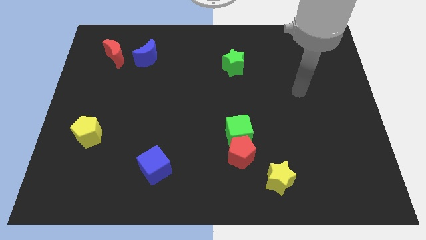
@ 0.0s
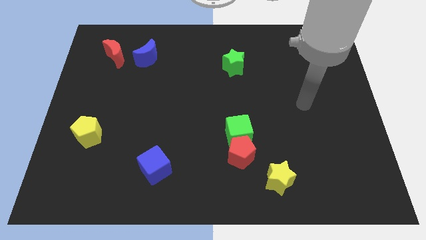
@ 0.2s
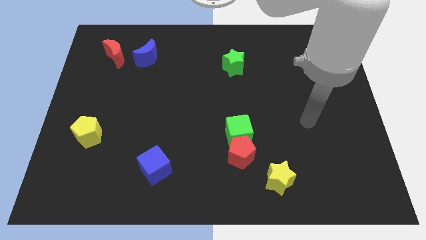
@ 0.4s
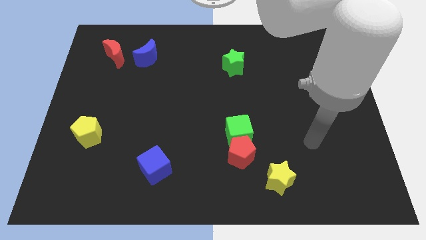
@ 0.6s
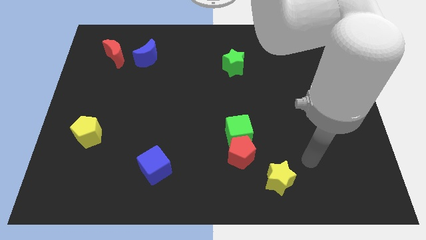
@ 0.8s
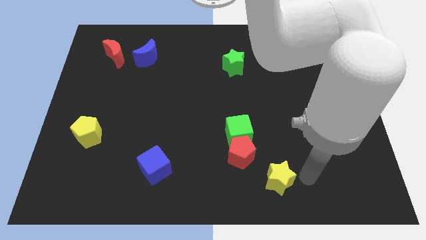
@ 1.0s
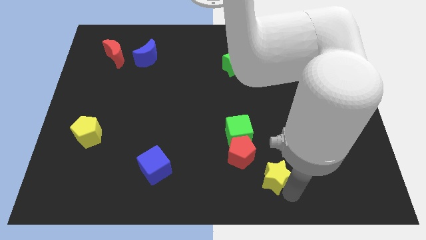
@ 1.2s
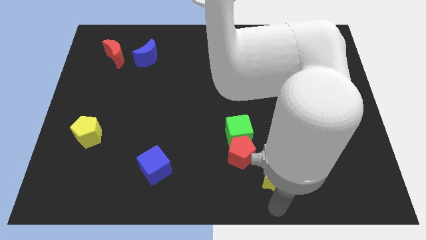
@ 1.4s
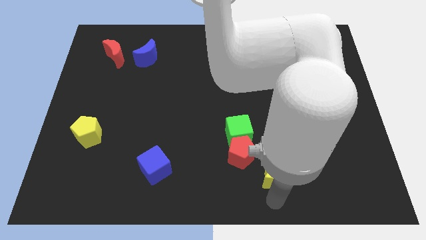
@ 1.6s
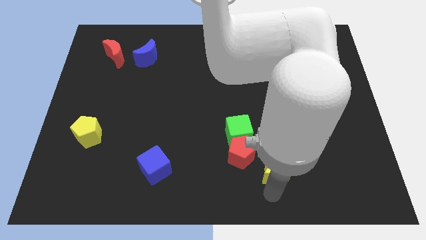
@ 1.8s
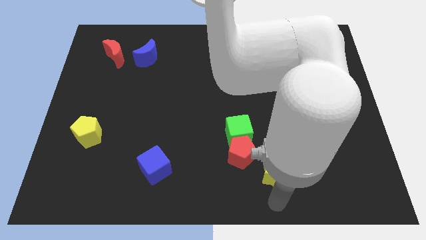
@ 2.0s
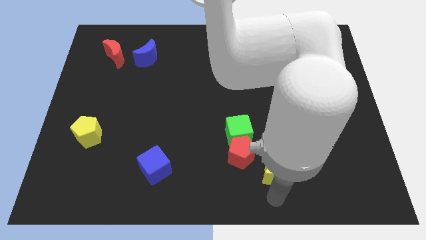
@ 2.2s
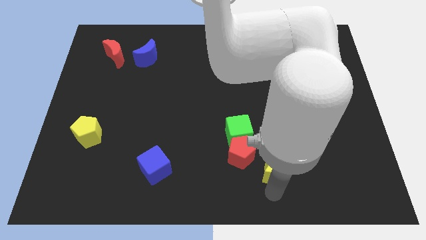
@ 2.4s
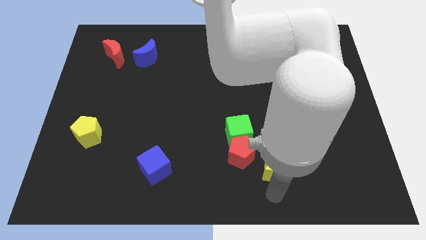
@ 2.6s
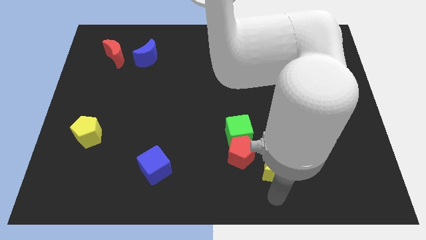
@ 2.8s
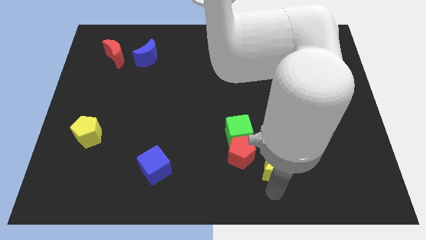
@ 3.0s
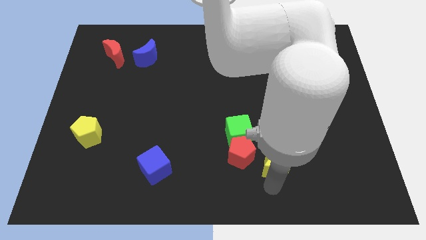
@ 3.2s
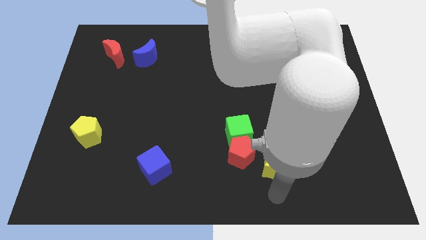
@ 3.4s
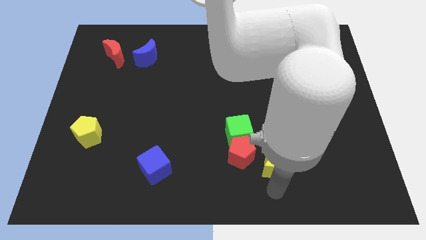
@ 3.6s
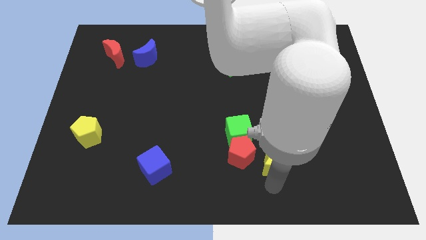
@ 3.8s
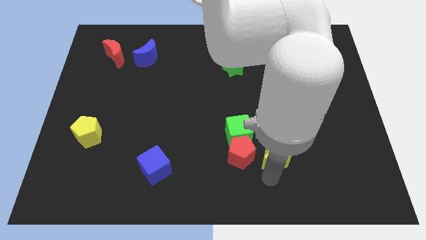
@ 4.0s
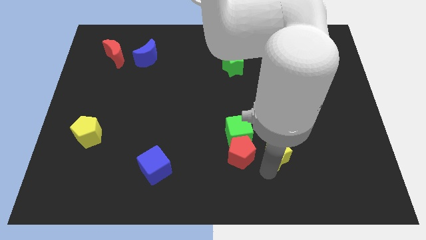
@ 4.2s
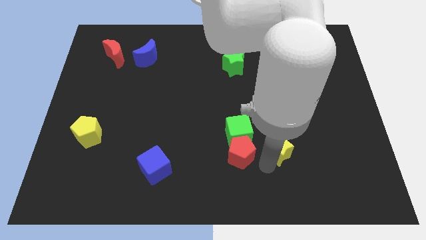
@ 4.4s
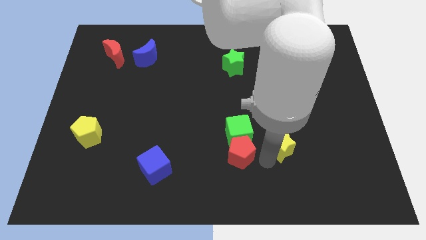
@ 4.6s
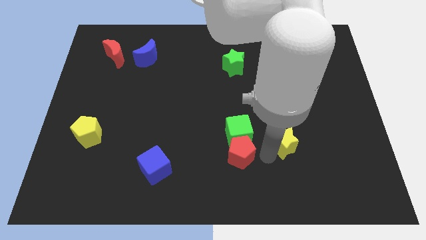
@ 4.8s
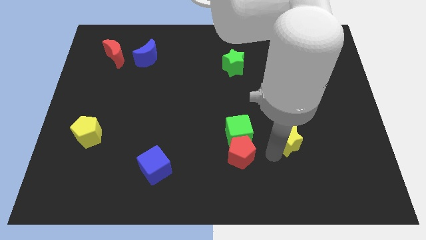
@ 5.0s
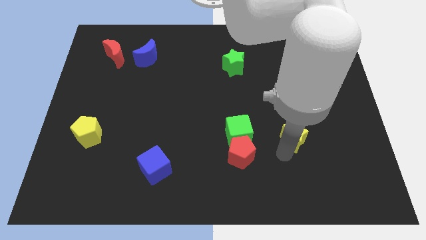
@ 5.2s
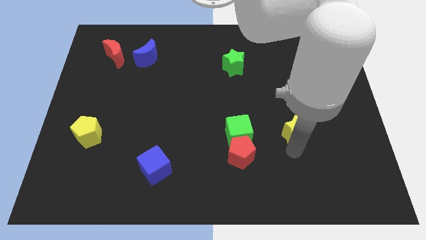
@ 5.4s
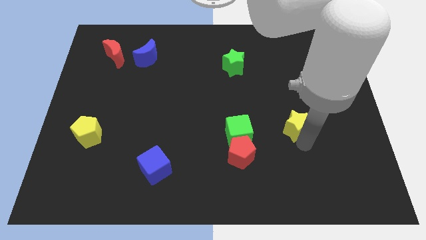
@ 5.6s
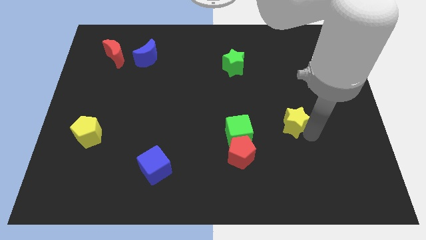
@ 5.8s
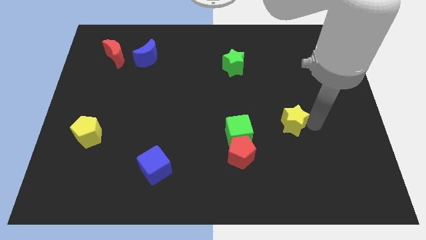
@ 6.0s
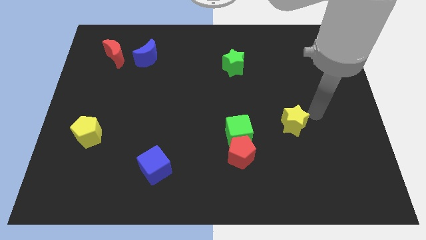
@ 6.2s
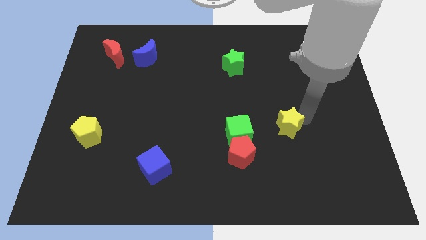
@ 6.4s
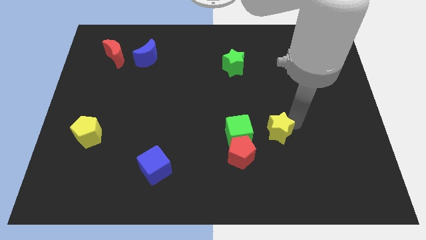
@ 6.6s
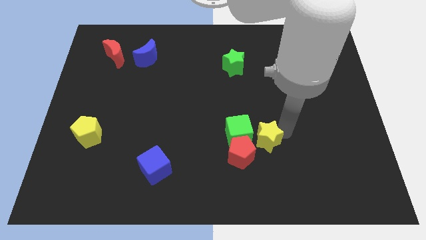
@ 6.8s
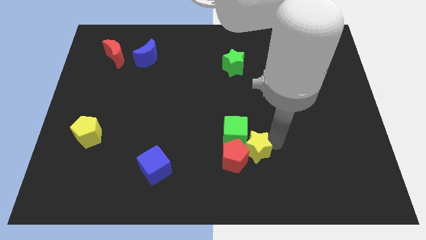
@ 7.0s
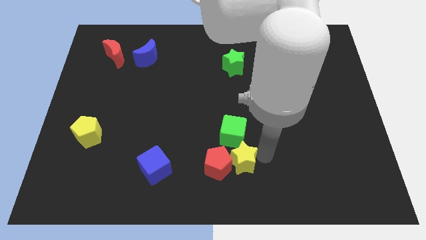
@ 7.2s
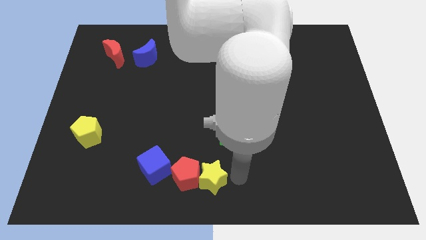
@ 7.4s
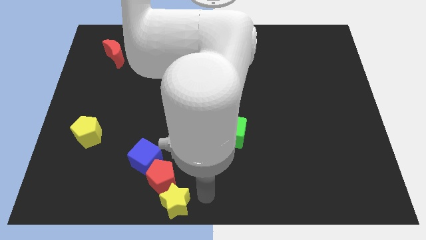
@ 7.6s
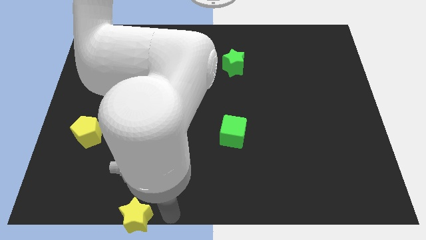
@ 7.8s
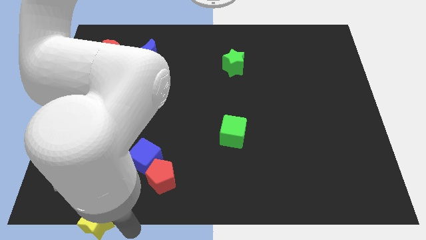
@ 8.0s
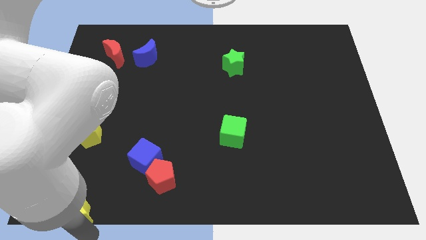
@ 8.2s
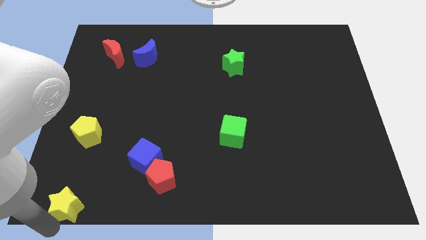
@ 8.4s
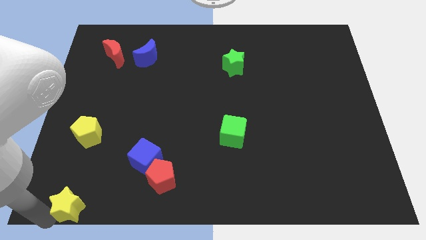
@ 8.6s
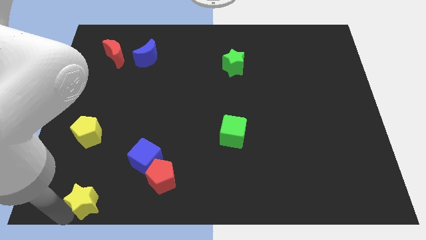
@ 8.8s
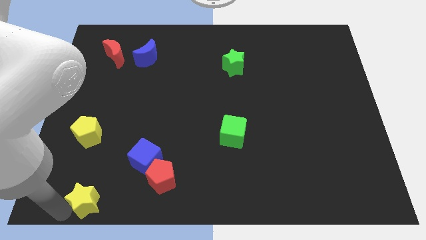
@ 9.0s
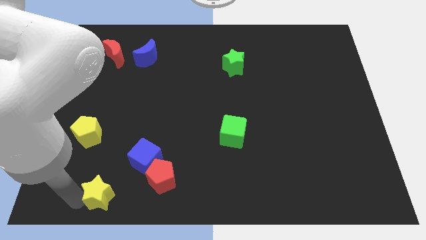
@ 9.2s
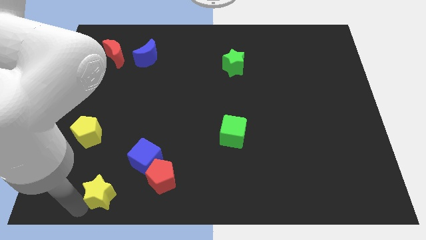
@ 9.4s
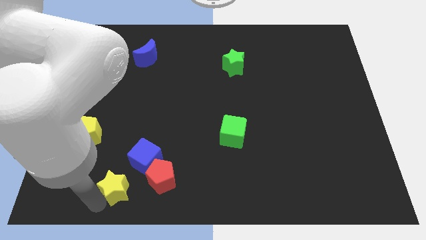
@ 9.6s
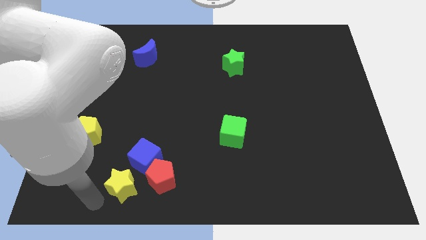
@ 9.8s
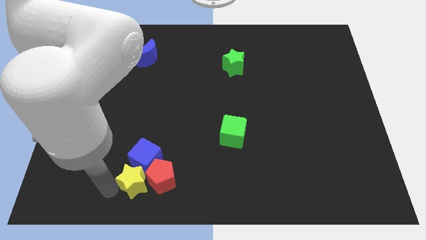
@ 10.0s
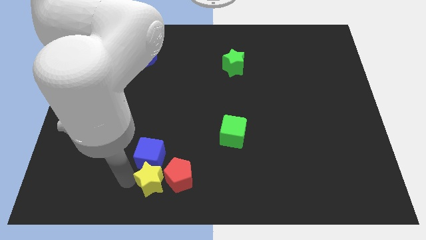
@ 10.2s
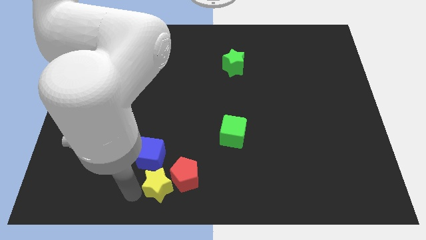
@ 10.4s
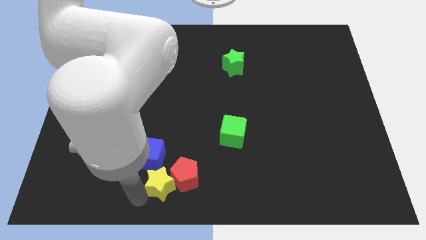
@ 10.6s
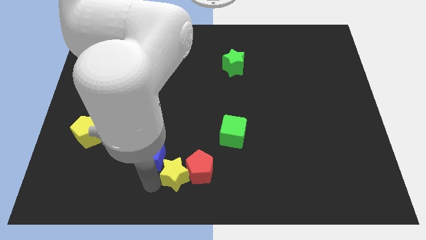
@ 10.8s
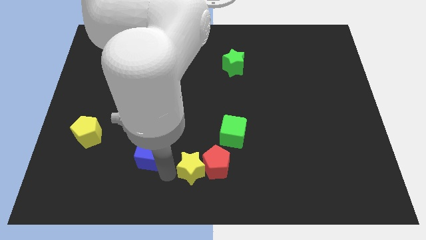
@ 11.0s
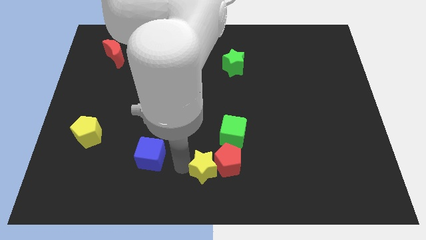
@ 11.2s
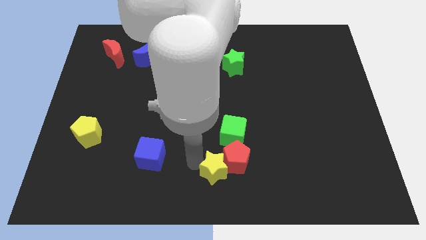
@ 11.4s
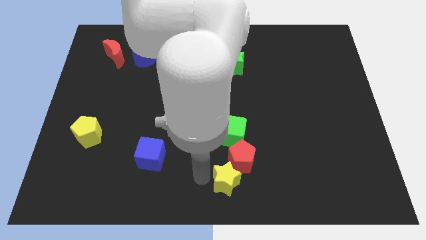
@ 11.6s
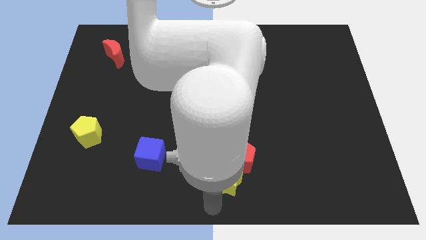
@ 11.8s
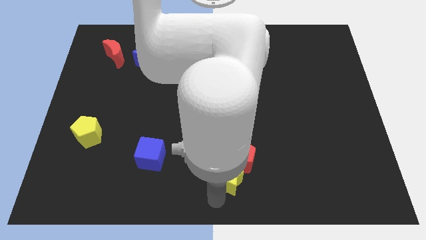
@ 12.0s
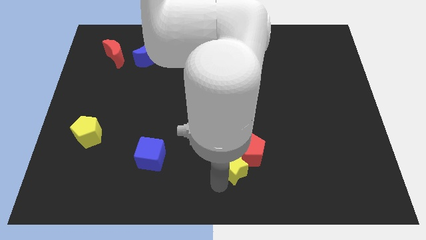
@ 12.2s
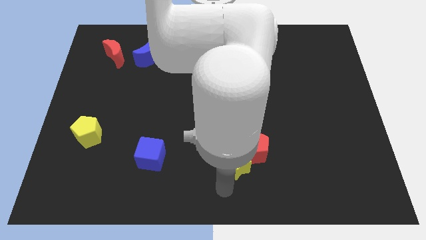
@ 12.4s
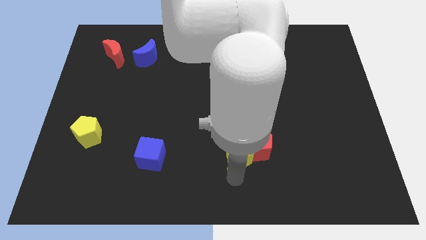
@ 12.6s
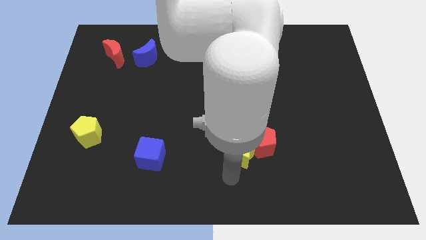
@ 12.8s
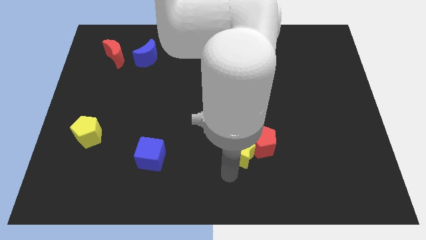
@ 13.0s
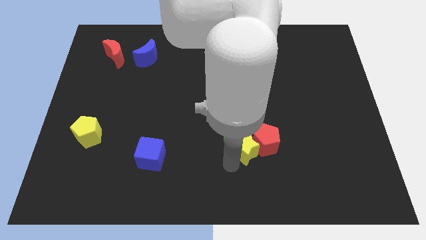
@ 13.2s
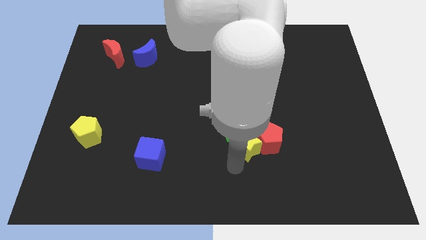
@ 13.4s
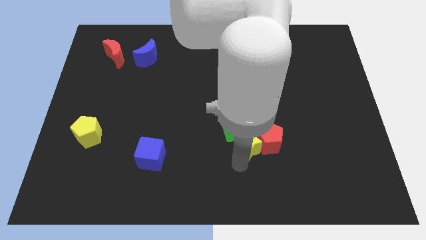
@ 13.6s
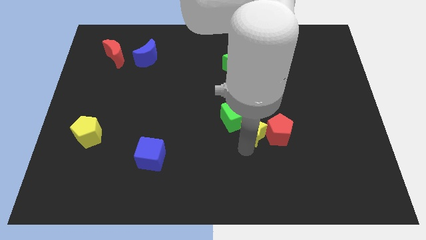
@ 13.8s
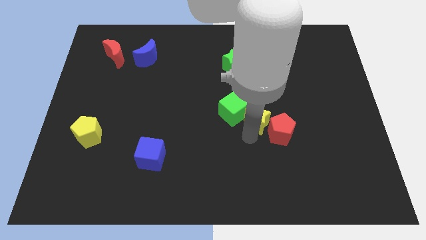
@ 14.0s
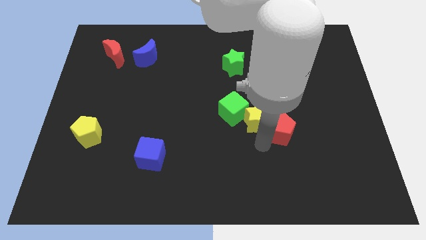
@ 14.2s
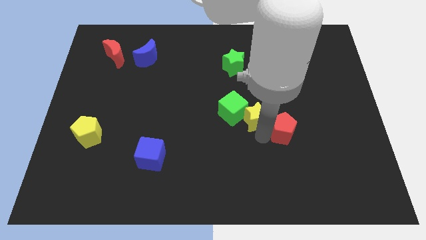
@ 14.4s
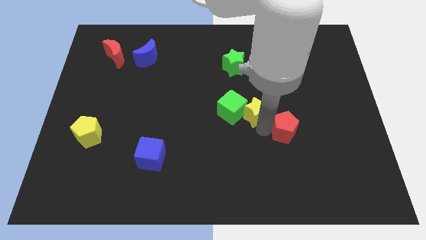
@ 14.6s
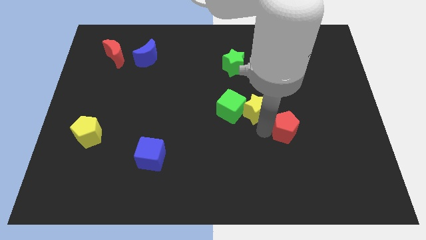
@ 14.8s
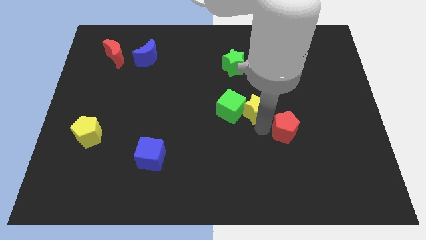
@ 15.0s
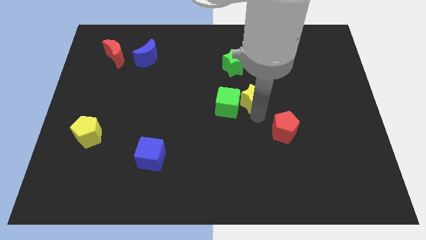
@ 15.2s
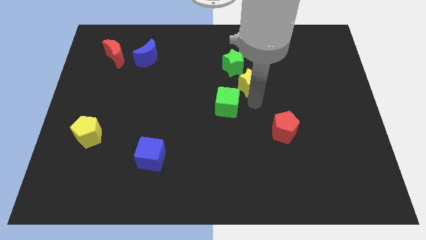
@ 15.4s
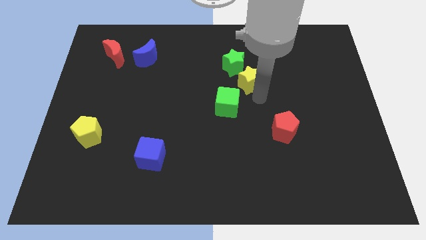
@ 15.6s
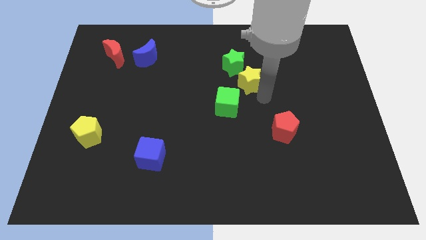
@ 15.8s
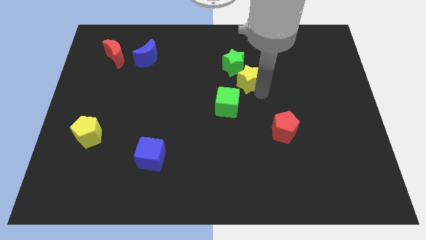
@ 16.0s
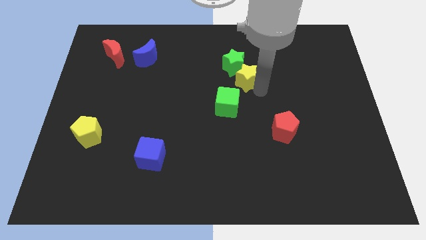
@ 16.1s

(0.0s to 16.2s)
slide the yellow star close to the green star
